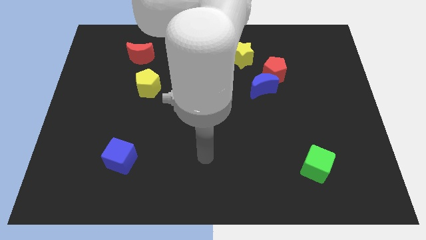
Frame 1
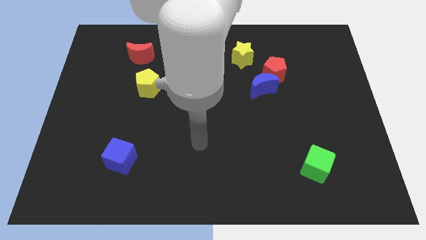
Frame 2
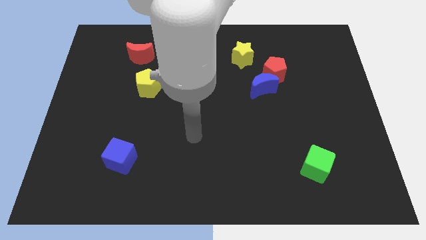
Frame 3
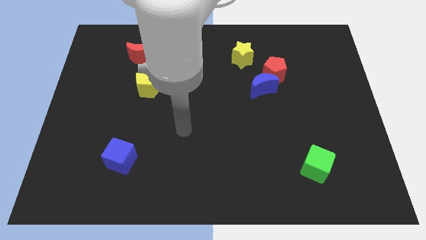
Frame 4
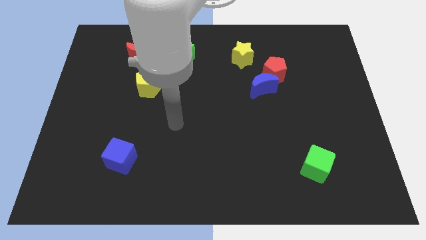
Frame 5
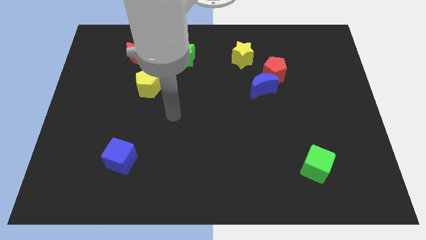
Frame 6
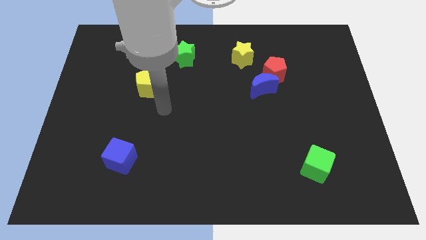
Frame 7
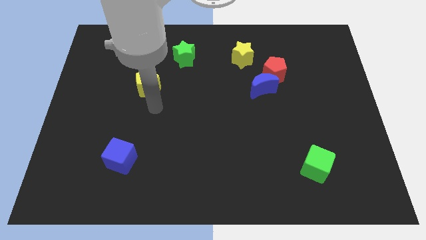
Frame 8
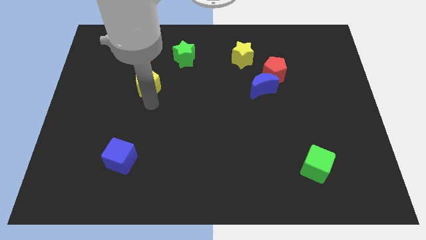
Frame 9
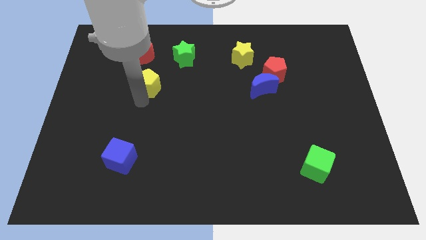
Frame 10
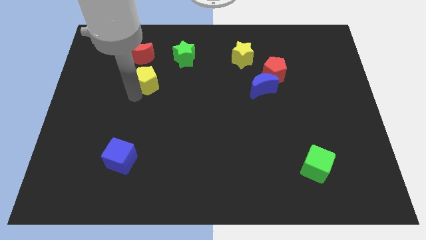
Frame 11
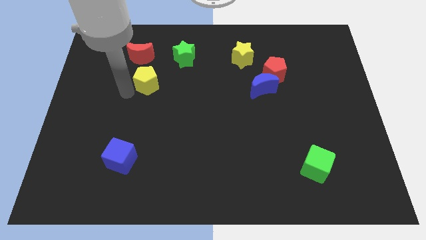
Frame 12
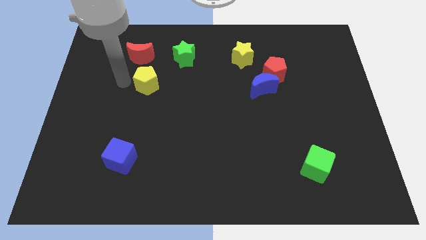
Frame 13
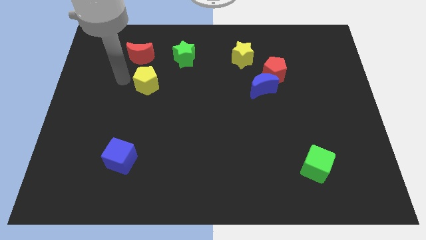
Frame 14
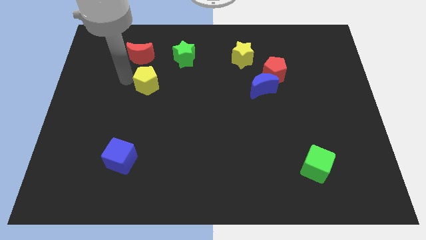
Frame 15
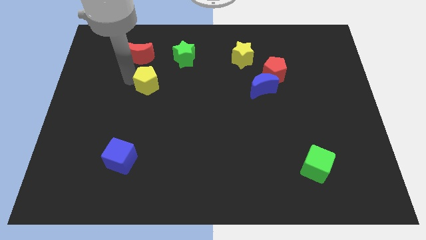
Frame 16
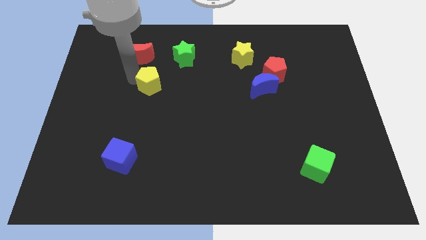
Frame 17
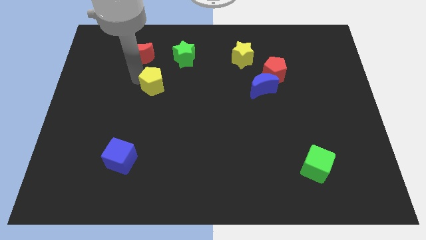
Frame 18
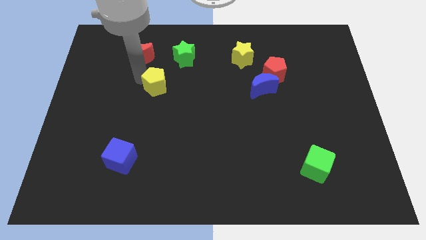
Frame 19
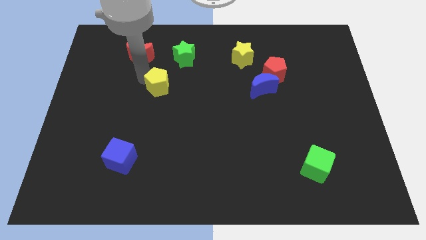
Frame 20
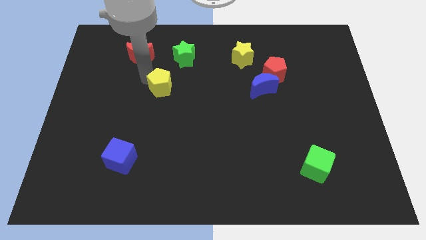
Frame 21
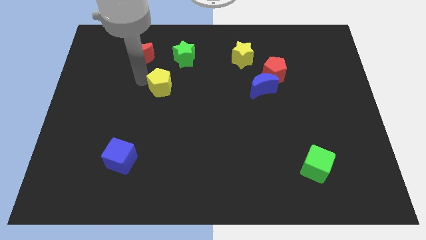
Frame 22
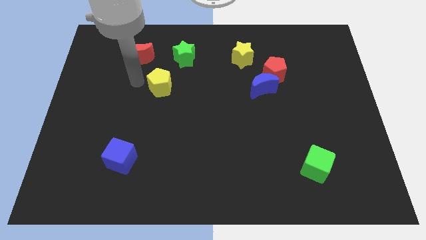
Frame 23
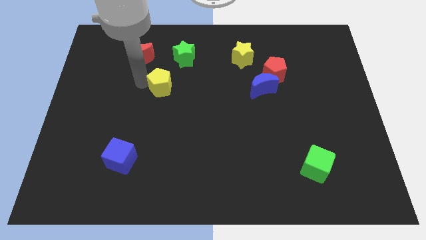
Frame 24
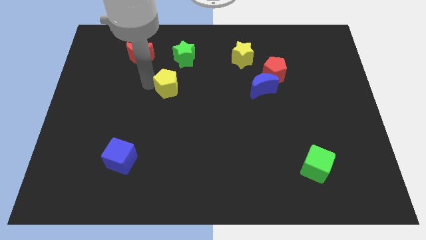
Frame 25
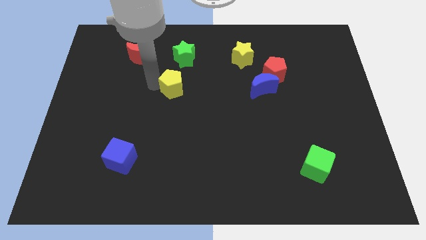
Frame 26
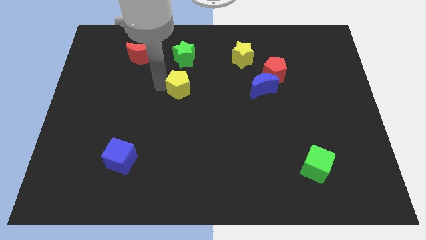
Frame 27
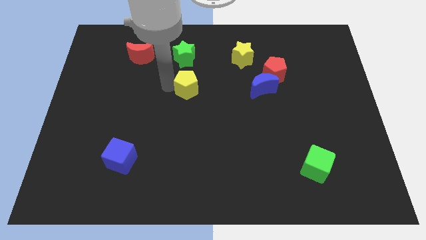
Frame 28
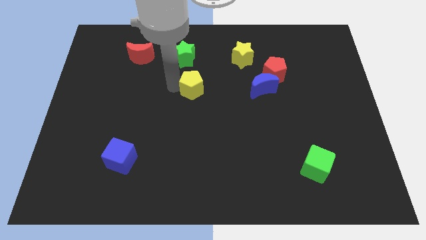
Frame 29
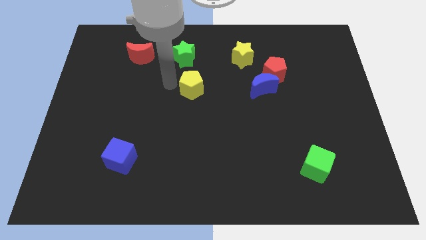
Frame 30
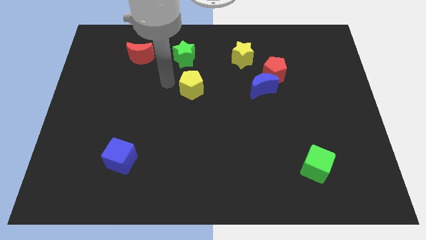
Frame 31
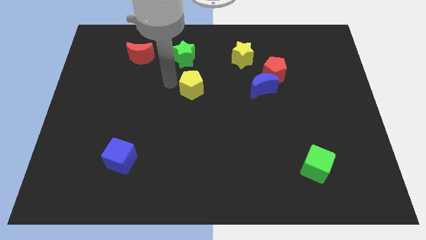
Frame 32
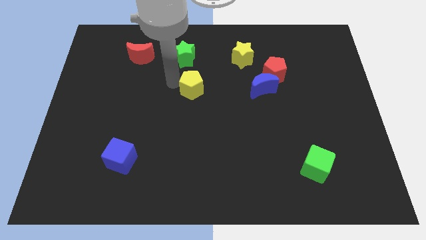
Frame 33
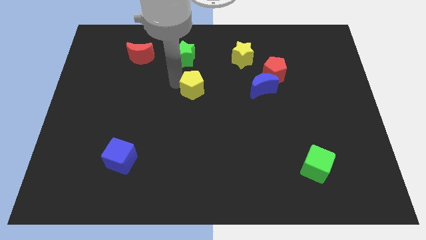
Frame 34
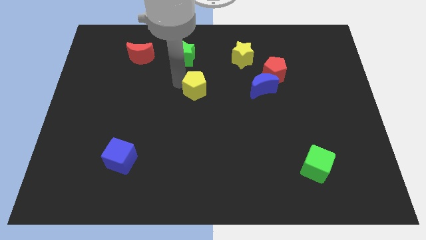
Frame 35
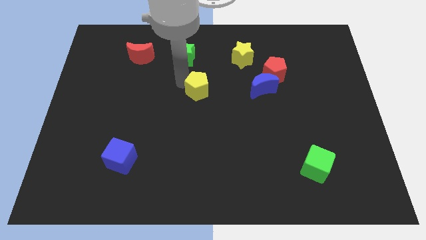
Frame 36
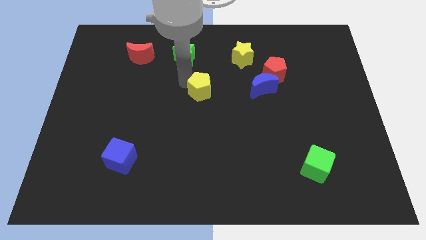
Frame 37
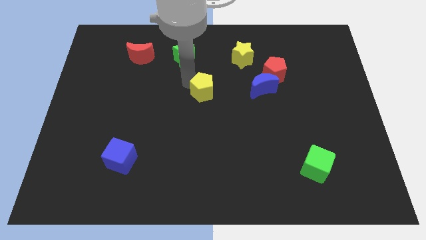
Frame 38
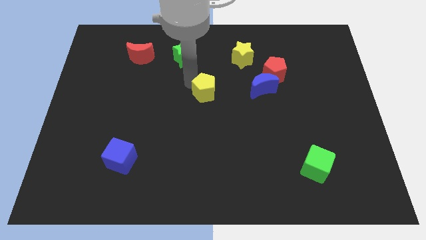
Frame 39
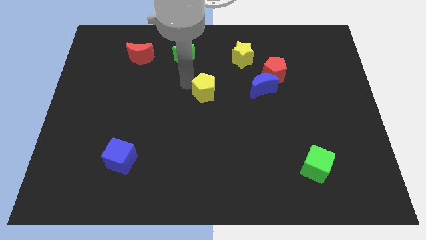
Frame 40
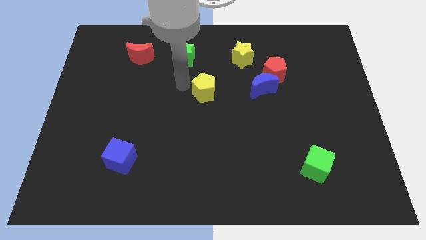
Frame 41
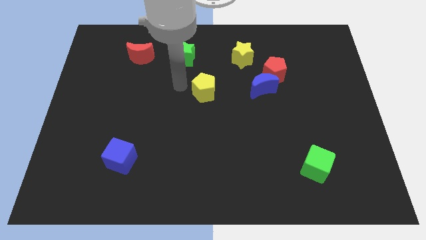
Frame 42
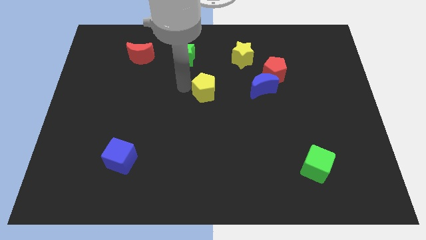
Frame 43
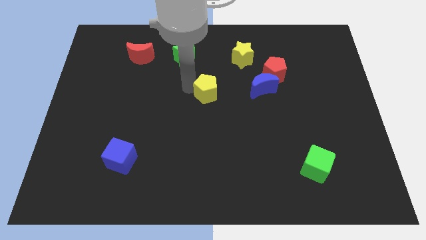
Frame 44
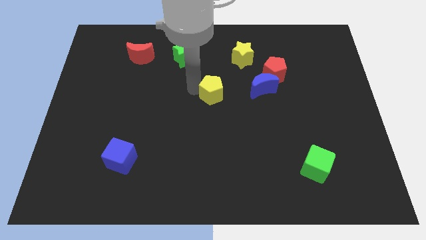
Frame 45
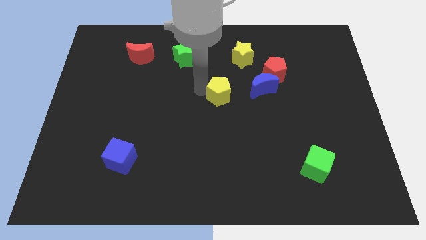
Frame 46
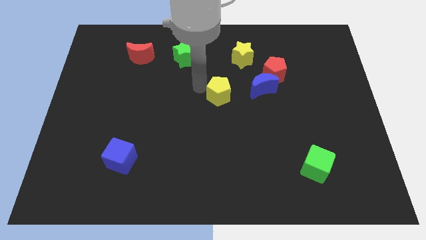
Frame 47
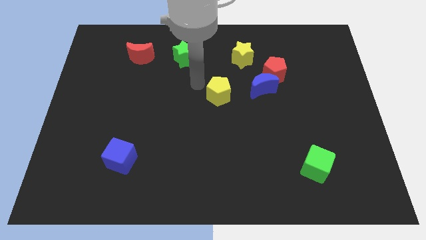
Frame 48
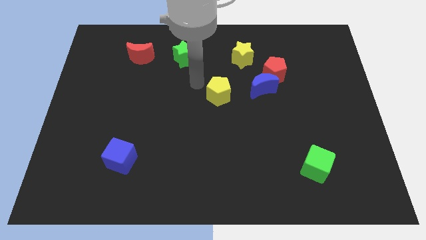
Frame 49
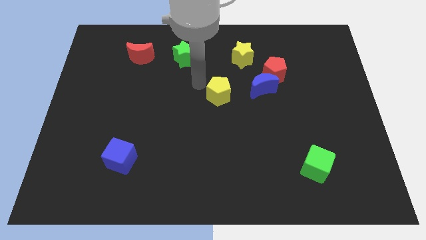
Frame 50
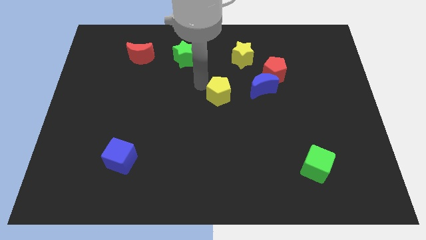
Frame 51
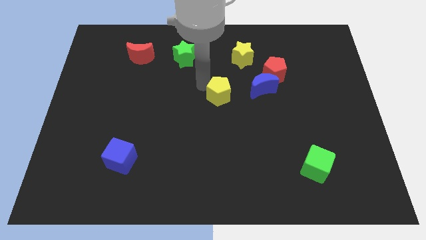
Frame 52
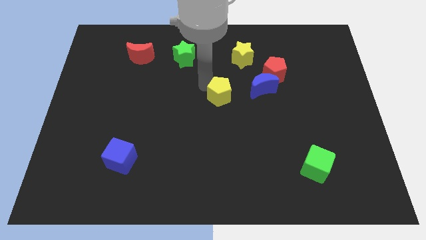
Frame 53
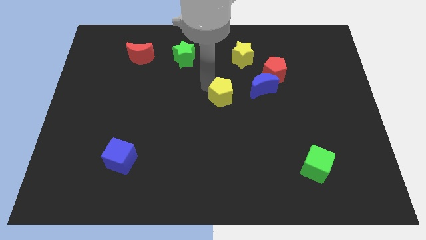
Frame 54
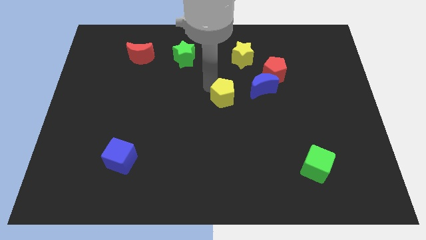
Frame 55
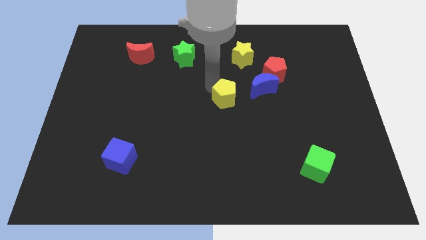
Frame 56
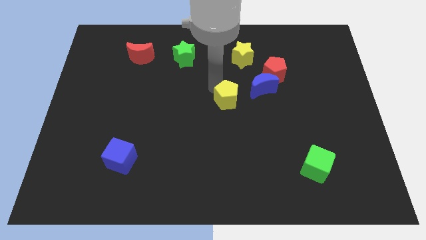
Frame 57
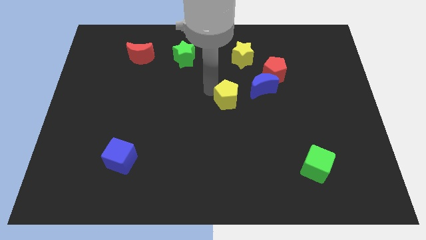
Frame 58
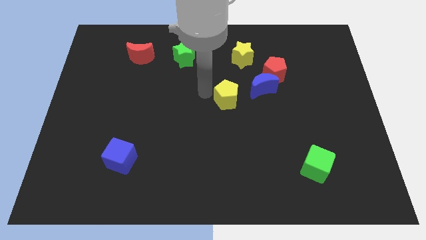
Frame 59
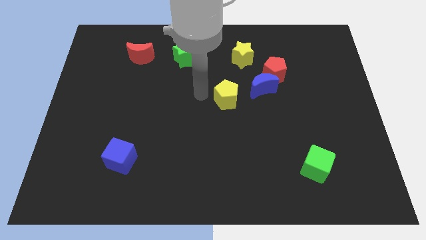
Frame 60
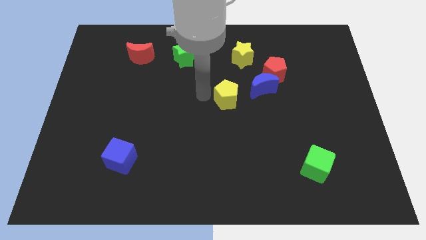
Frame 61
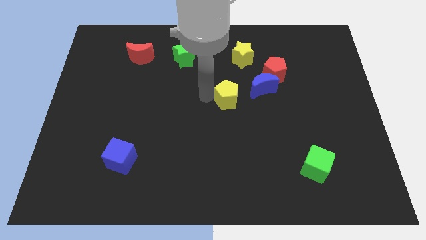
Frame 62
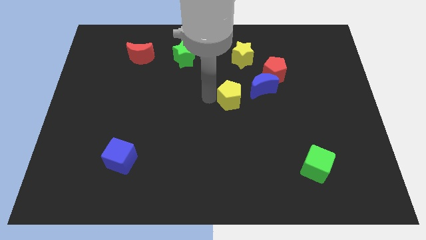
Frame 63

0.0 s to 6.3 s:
move the yellow pentagon right

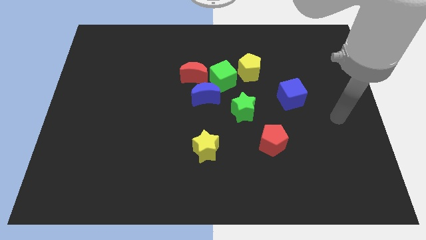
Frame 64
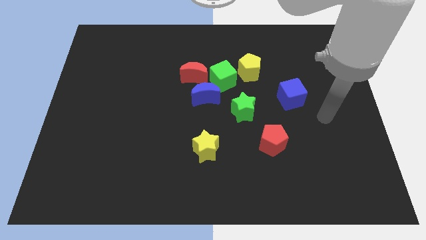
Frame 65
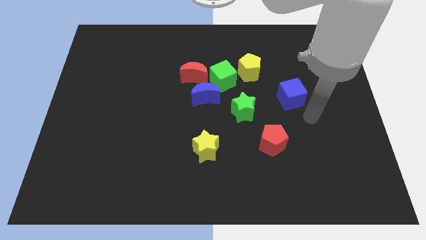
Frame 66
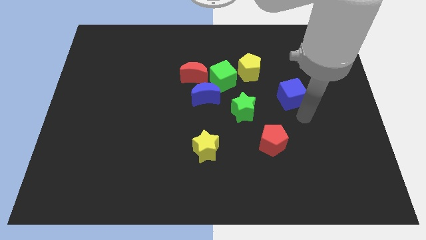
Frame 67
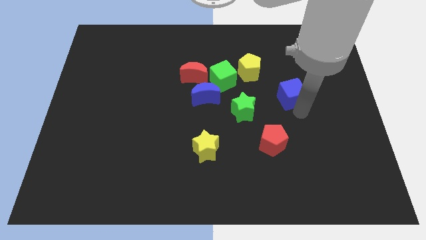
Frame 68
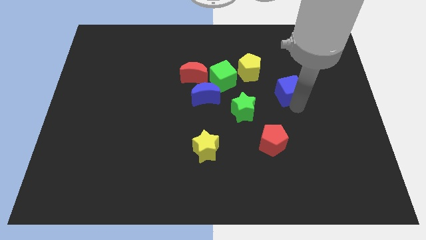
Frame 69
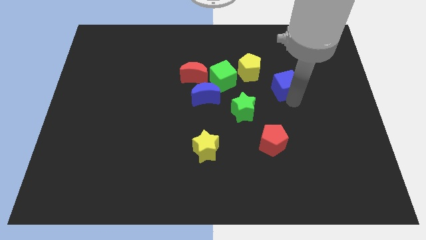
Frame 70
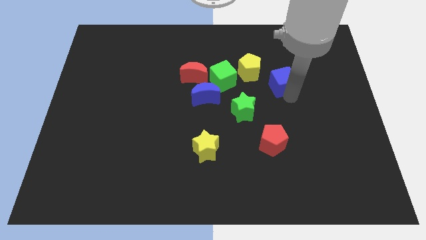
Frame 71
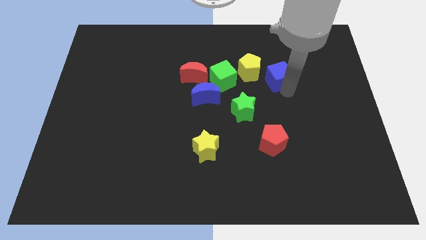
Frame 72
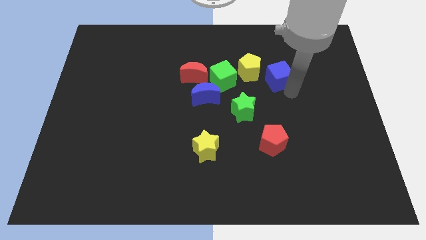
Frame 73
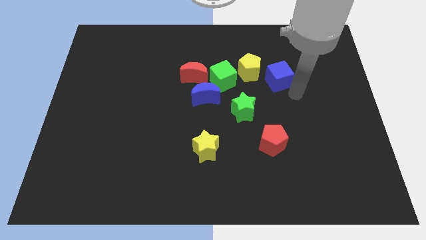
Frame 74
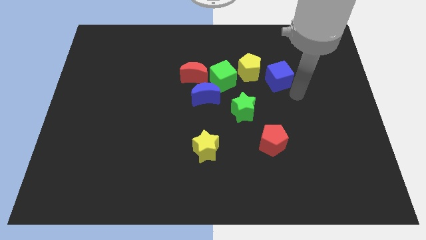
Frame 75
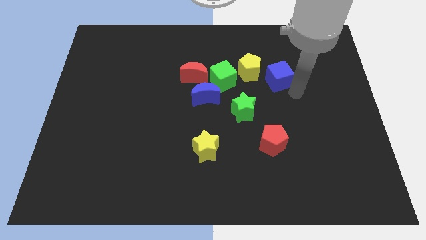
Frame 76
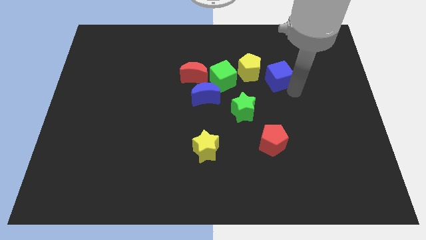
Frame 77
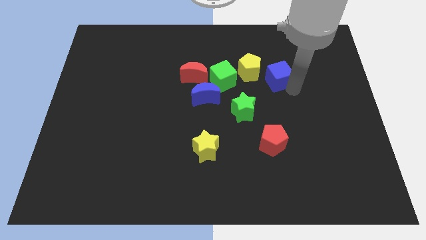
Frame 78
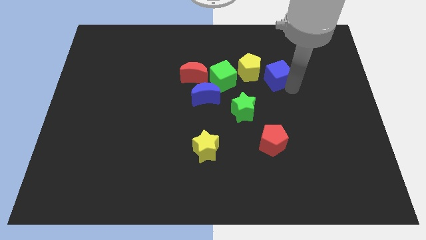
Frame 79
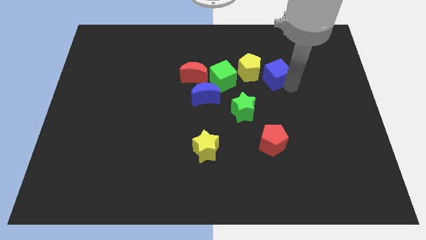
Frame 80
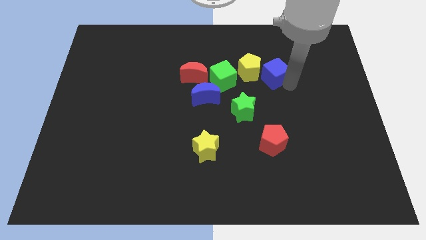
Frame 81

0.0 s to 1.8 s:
slightly slide the blue cube upwards and to the left

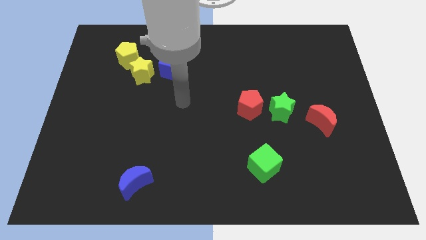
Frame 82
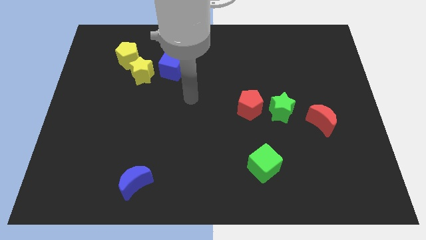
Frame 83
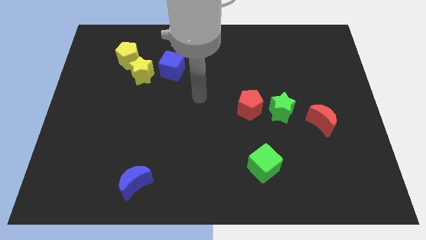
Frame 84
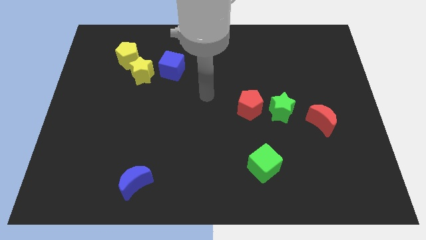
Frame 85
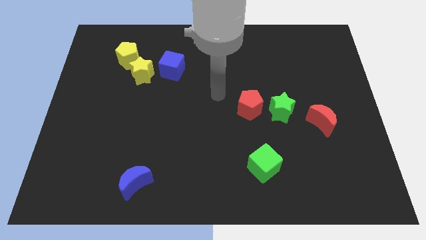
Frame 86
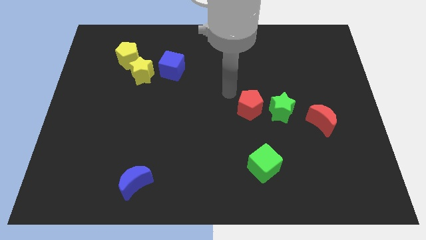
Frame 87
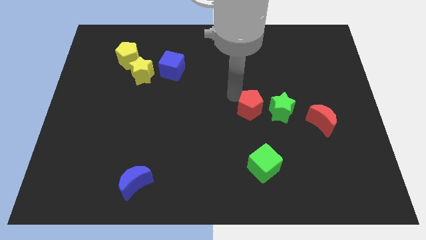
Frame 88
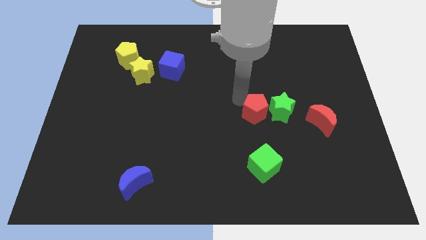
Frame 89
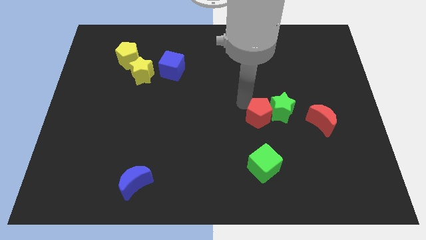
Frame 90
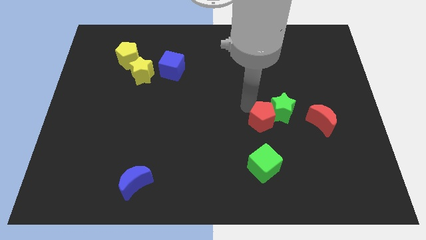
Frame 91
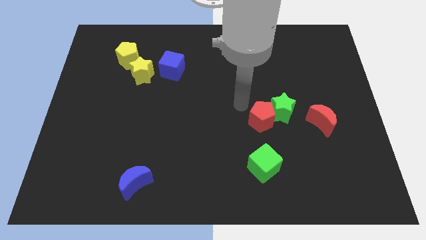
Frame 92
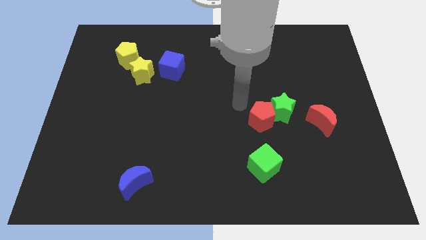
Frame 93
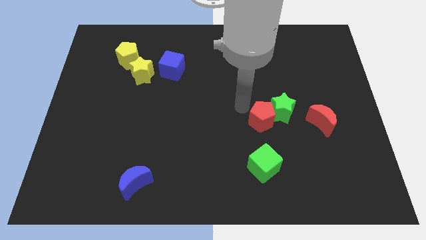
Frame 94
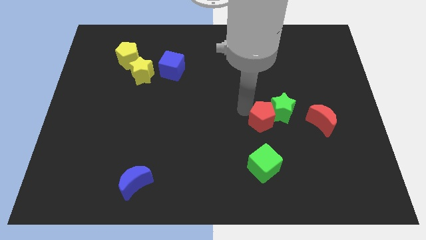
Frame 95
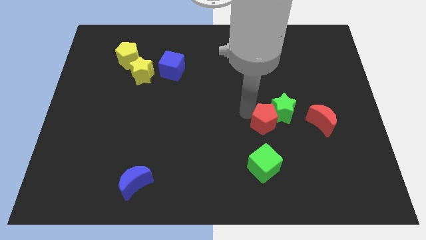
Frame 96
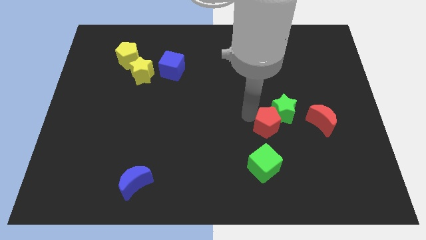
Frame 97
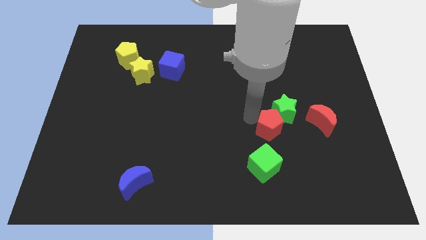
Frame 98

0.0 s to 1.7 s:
slightly move the red pentagon downwards and to the right
